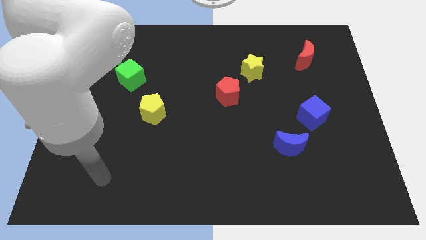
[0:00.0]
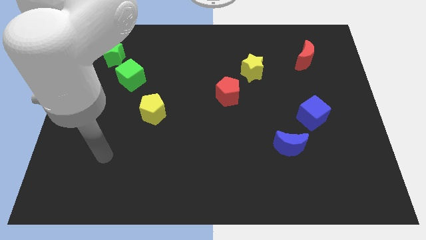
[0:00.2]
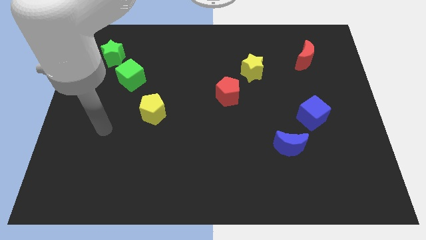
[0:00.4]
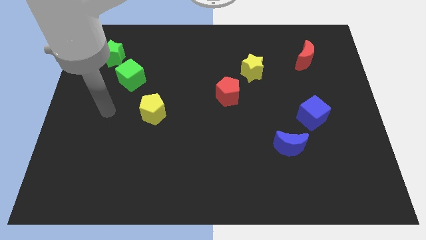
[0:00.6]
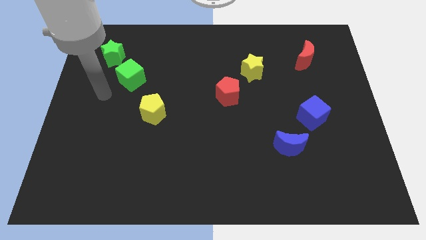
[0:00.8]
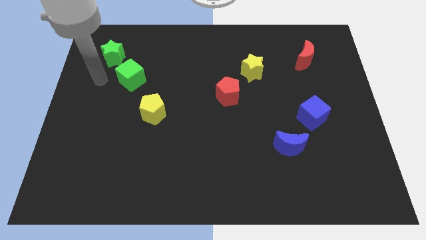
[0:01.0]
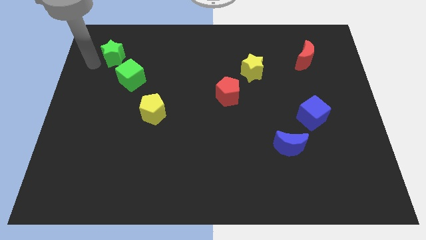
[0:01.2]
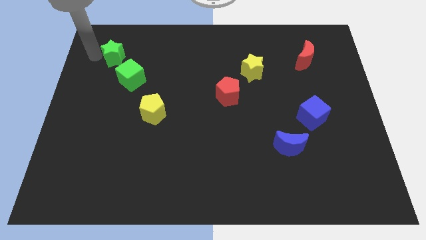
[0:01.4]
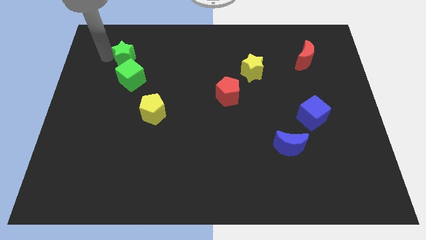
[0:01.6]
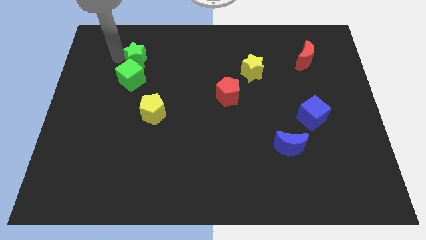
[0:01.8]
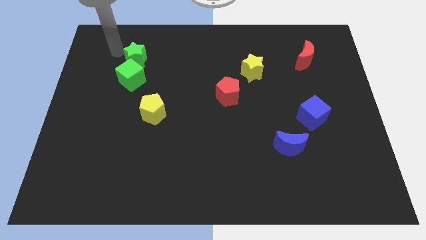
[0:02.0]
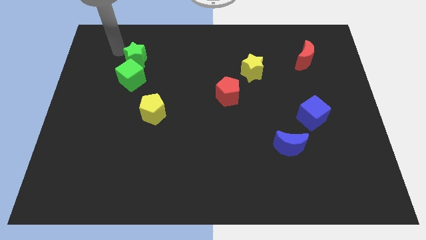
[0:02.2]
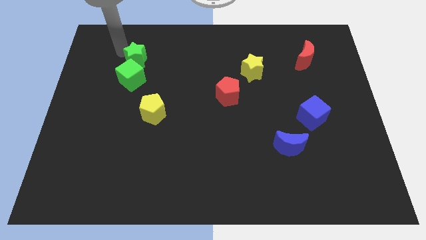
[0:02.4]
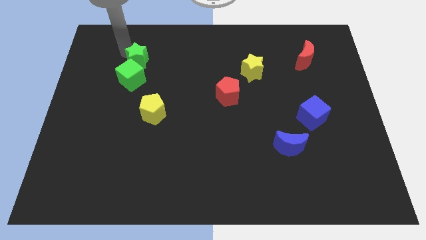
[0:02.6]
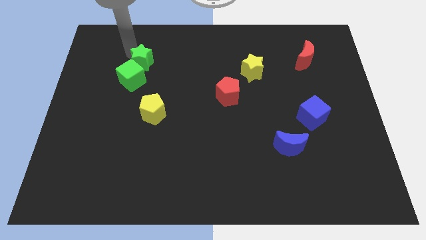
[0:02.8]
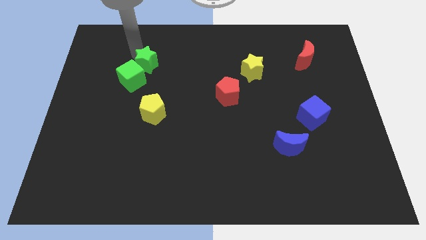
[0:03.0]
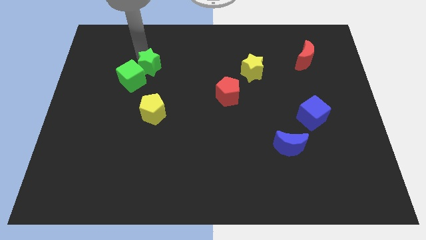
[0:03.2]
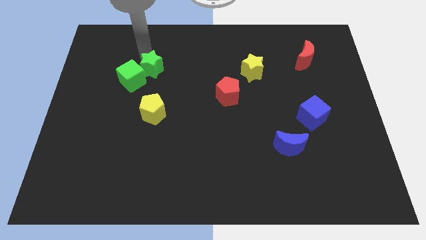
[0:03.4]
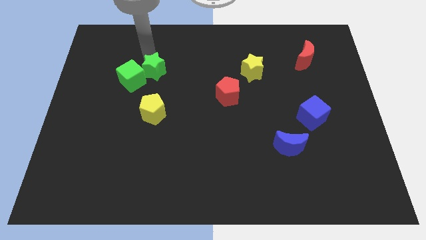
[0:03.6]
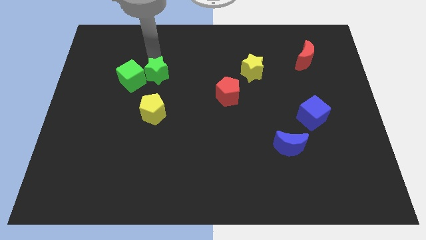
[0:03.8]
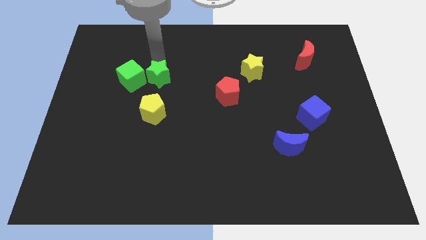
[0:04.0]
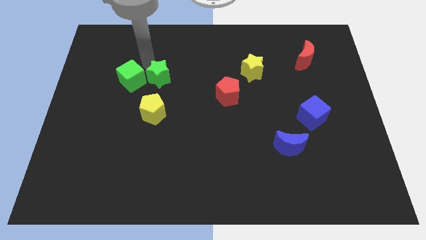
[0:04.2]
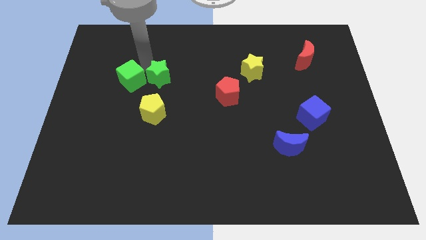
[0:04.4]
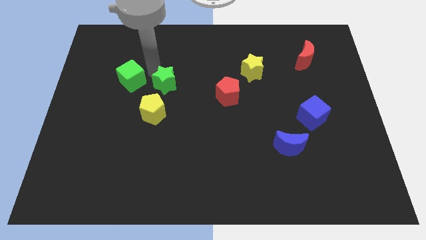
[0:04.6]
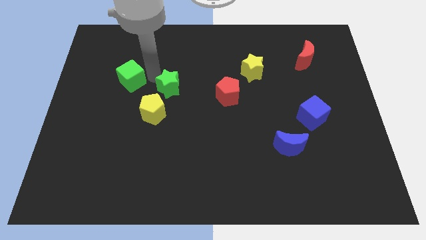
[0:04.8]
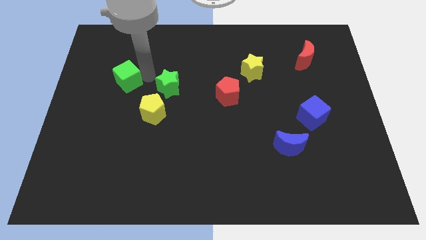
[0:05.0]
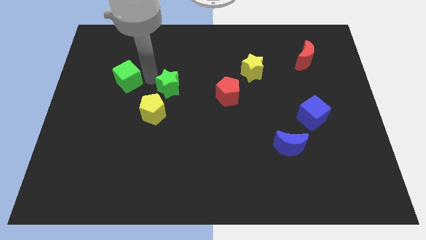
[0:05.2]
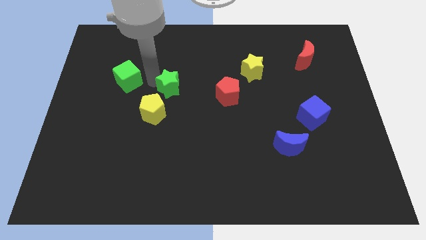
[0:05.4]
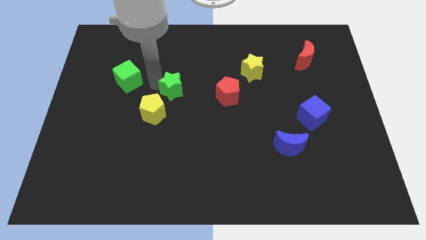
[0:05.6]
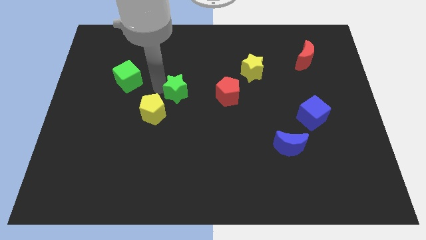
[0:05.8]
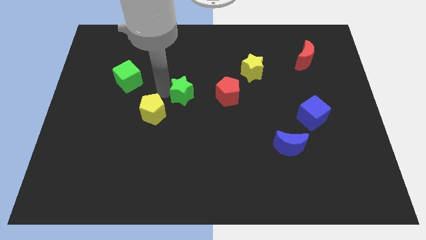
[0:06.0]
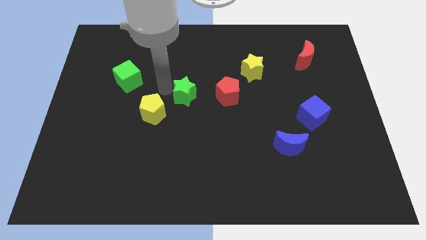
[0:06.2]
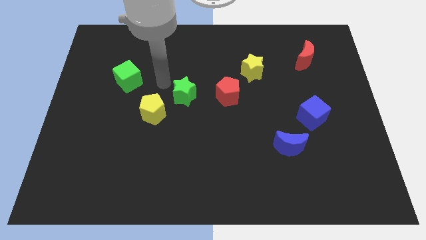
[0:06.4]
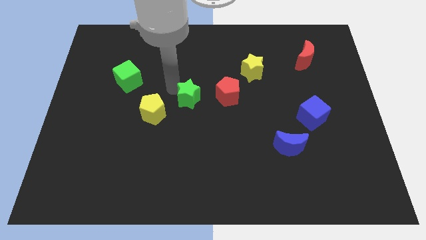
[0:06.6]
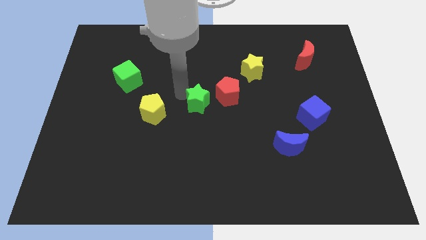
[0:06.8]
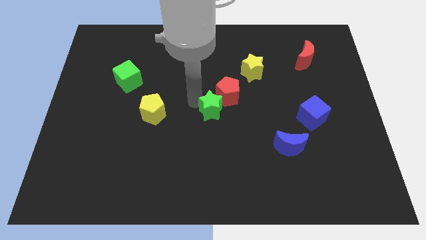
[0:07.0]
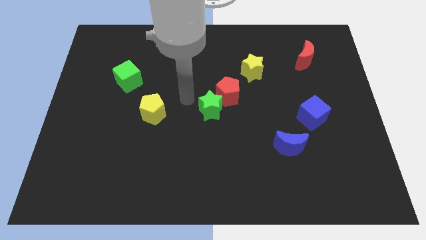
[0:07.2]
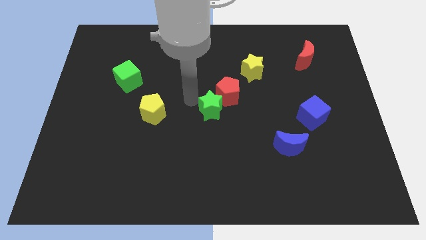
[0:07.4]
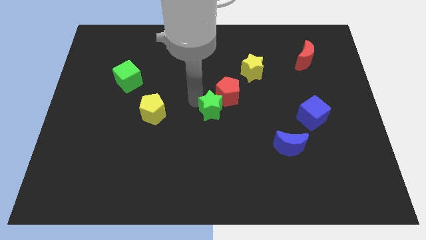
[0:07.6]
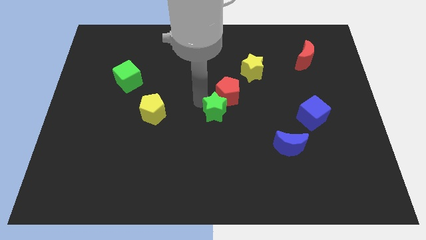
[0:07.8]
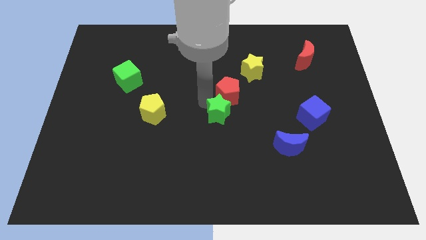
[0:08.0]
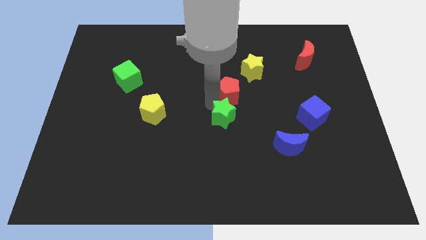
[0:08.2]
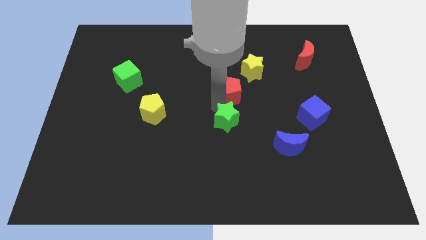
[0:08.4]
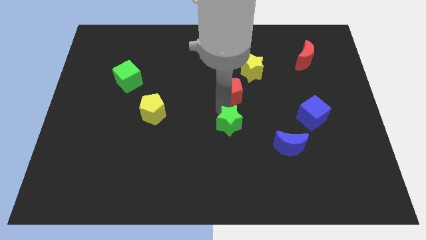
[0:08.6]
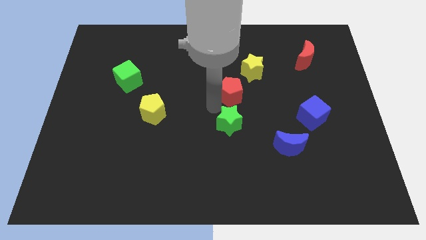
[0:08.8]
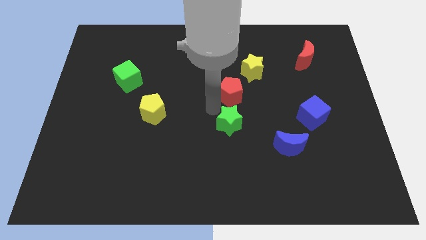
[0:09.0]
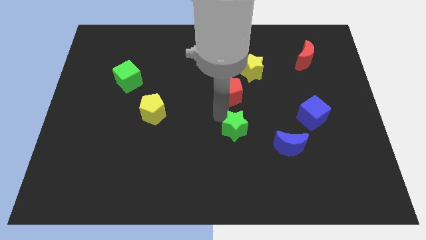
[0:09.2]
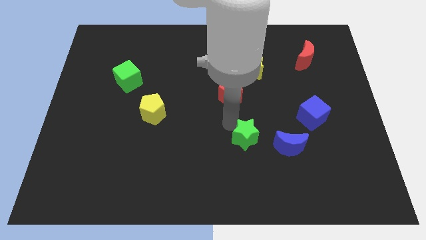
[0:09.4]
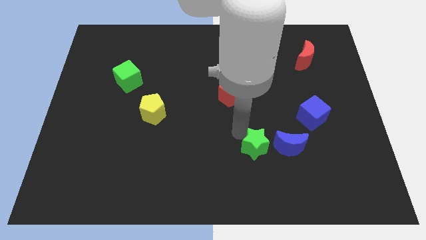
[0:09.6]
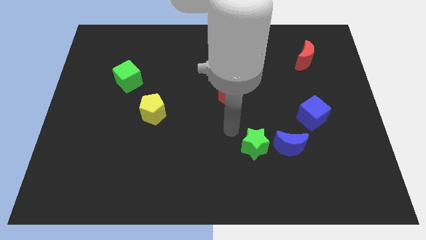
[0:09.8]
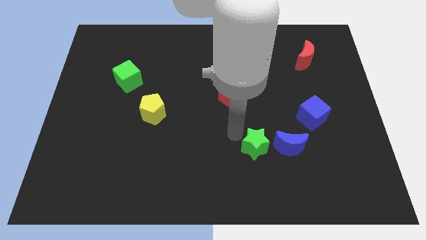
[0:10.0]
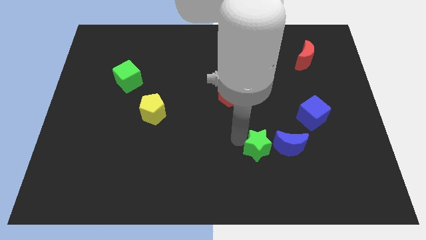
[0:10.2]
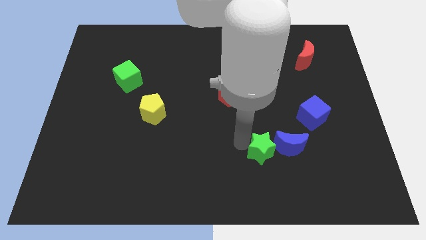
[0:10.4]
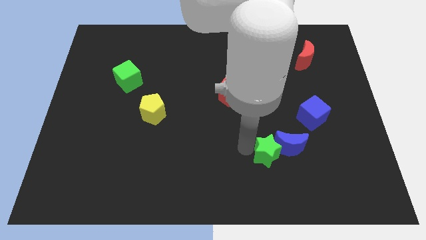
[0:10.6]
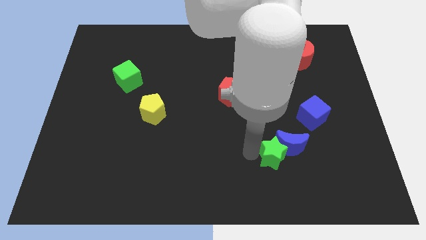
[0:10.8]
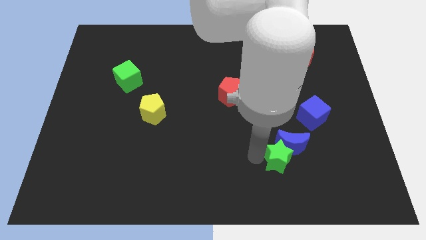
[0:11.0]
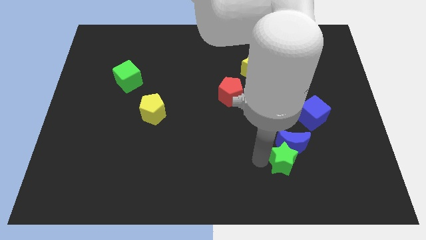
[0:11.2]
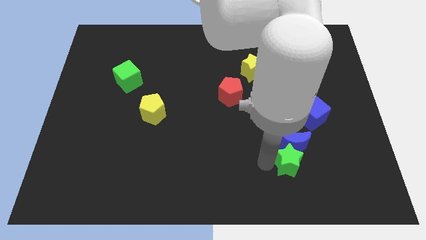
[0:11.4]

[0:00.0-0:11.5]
slide the green star diagonally down and to the right of the blue moon

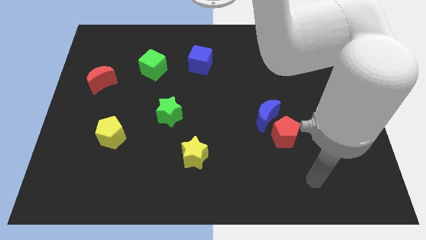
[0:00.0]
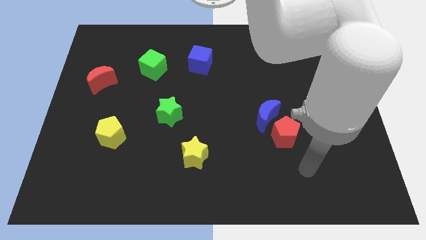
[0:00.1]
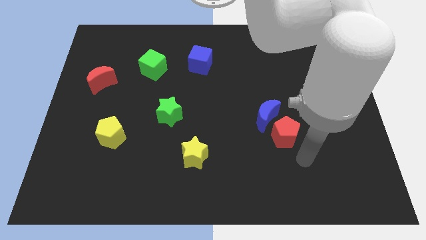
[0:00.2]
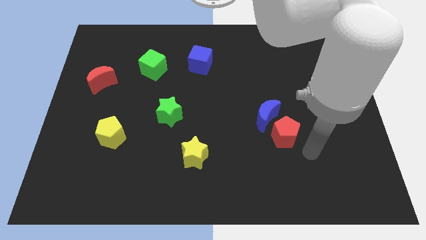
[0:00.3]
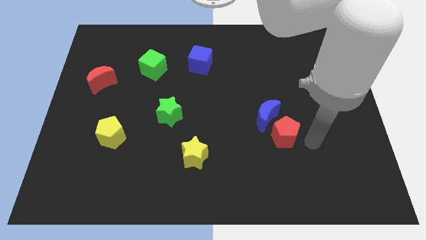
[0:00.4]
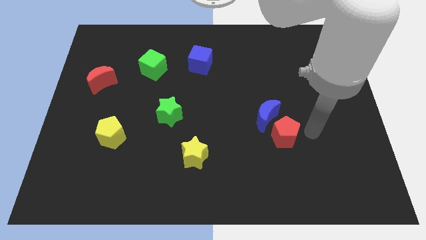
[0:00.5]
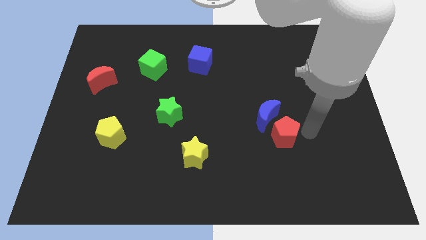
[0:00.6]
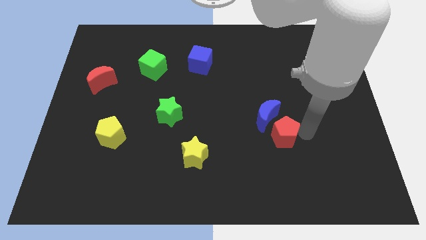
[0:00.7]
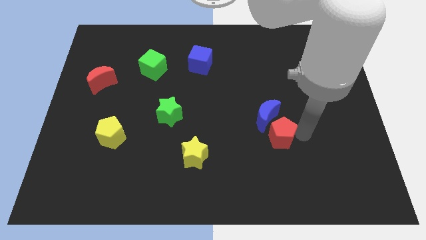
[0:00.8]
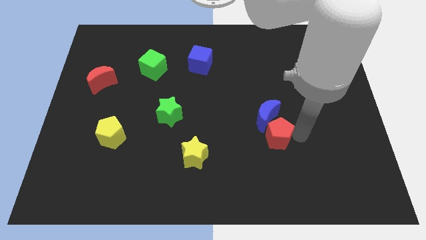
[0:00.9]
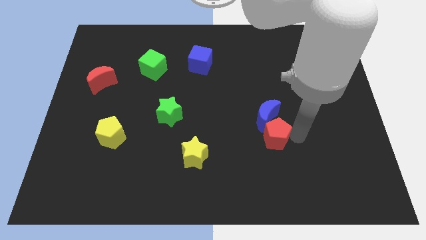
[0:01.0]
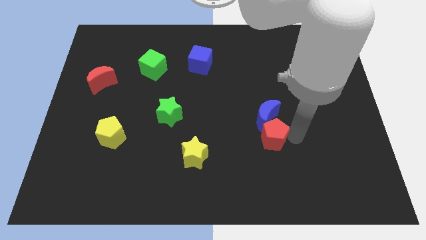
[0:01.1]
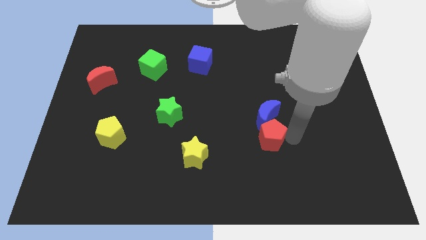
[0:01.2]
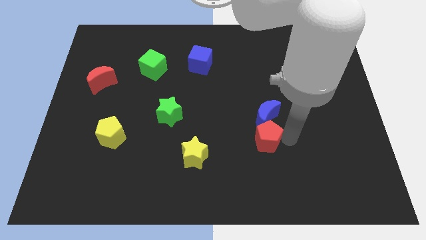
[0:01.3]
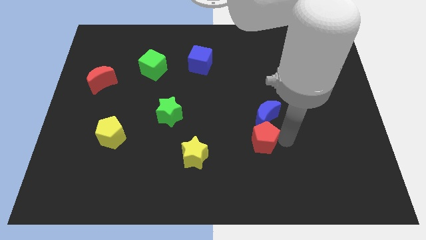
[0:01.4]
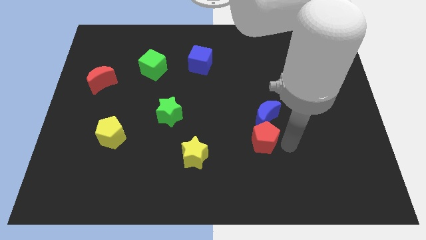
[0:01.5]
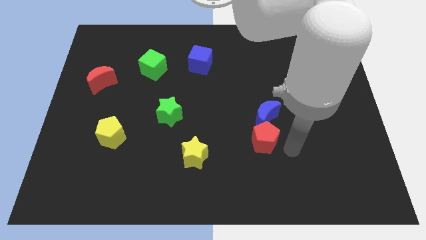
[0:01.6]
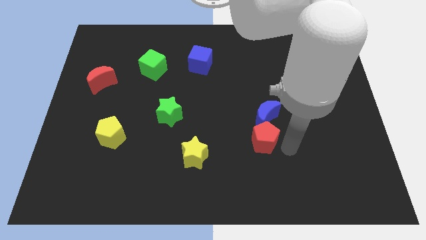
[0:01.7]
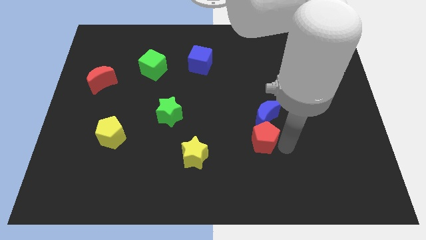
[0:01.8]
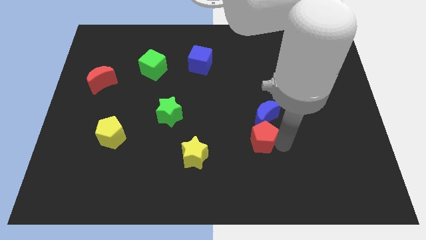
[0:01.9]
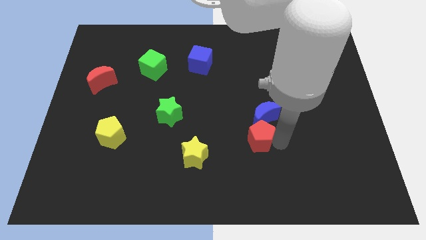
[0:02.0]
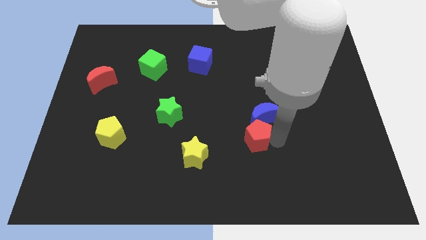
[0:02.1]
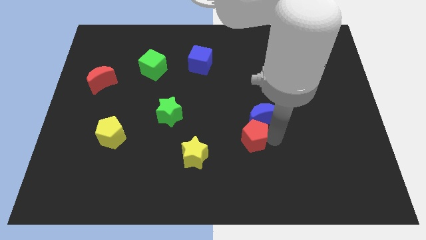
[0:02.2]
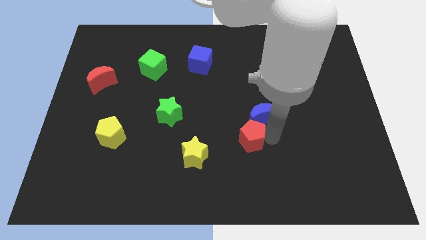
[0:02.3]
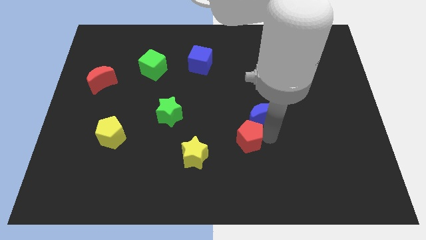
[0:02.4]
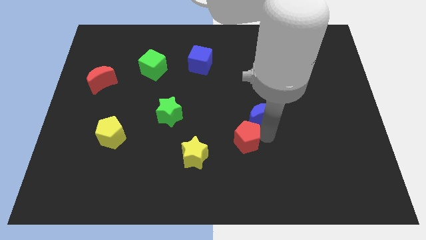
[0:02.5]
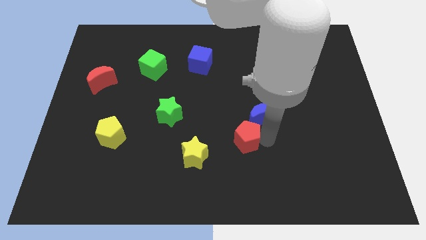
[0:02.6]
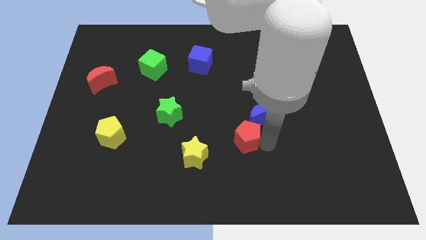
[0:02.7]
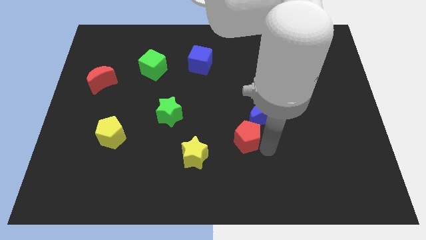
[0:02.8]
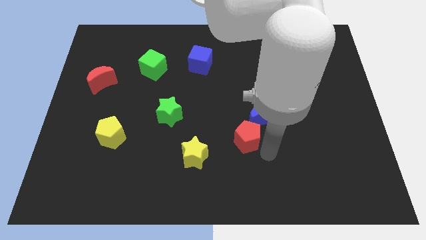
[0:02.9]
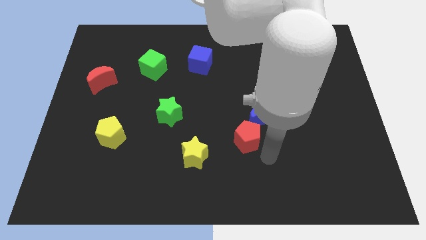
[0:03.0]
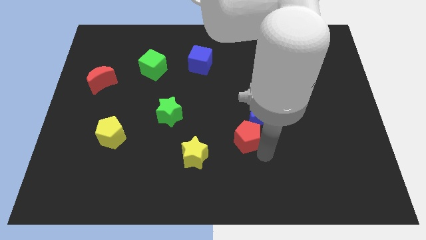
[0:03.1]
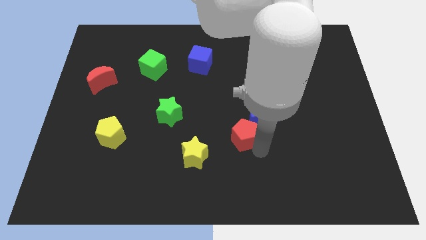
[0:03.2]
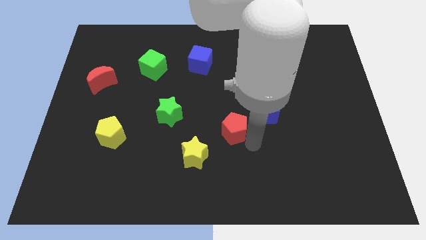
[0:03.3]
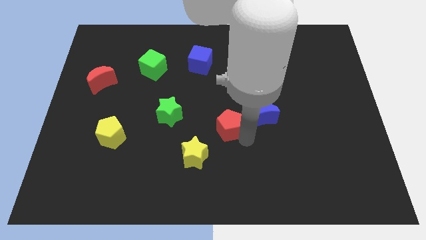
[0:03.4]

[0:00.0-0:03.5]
slide the red pentagon right of the green star
